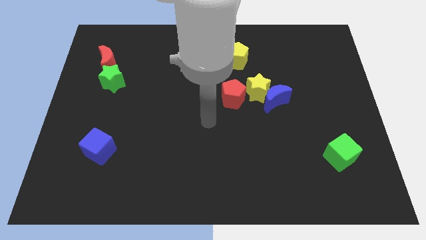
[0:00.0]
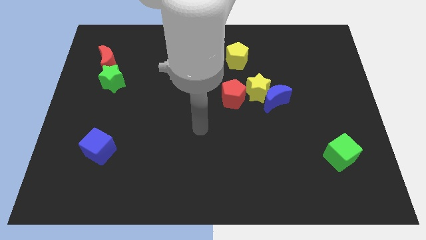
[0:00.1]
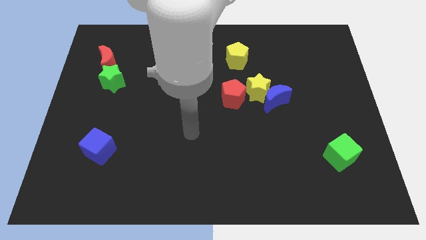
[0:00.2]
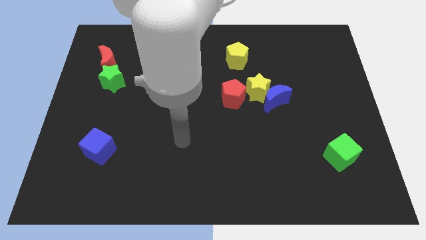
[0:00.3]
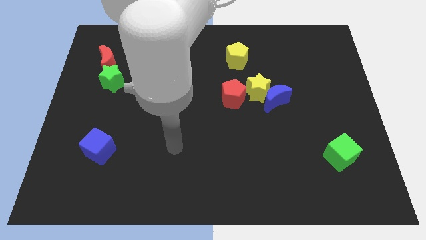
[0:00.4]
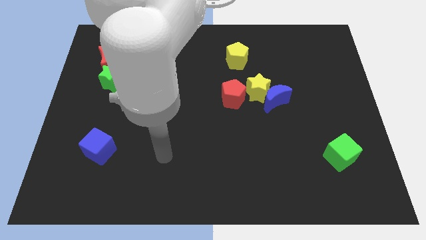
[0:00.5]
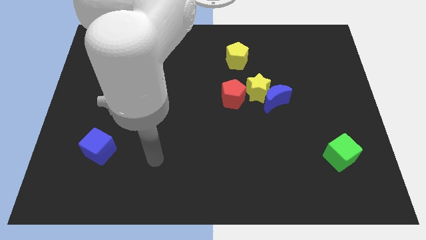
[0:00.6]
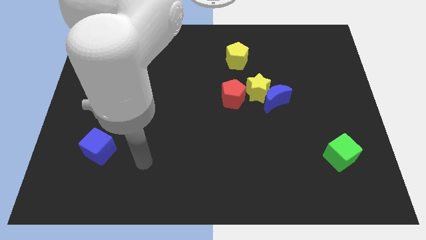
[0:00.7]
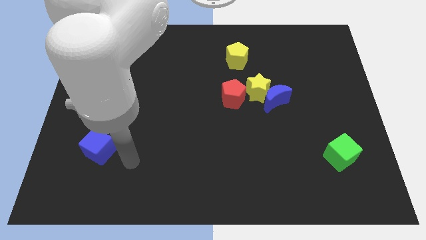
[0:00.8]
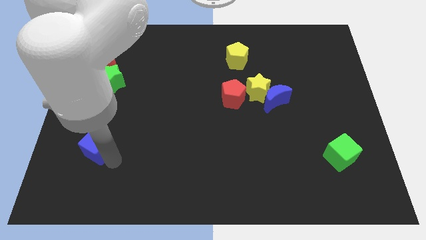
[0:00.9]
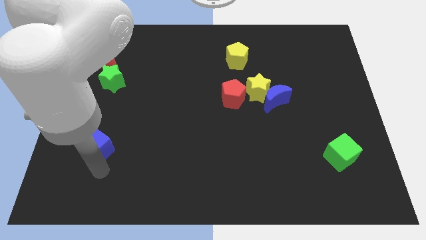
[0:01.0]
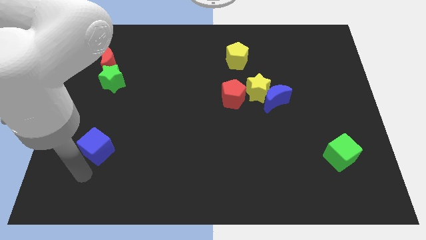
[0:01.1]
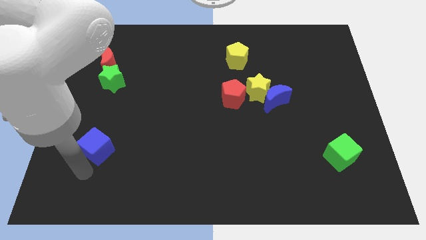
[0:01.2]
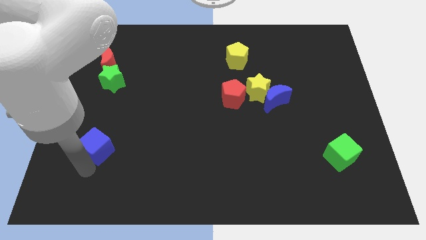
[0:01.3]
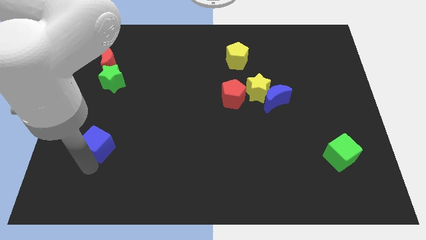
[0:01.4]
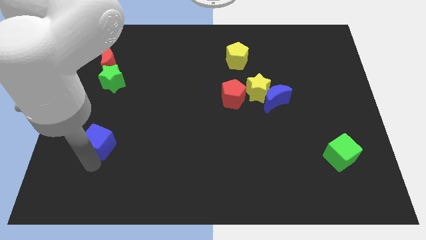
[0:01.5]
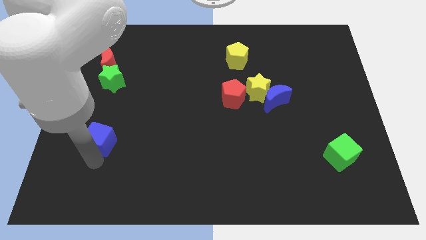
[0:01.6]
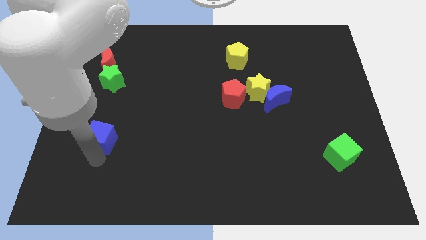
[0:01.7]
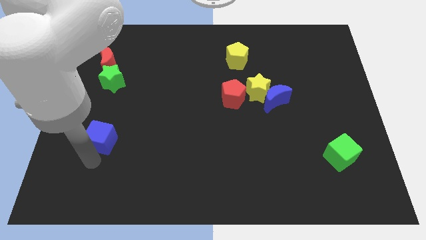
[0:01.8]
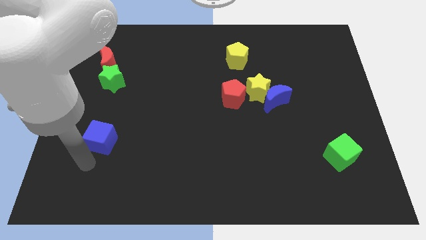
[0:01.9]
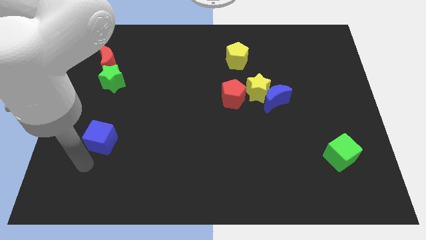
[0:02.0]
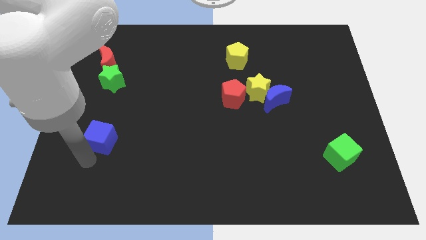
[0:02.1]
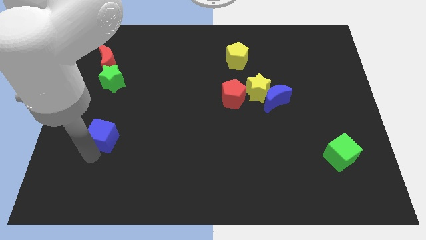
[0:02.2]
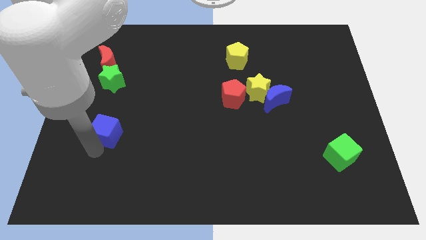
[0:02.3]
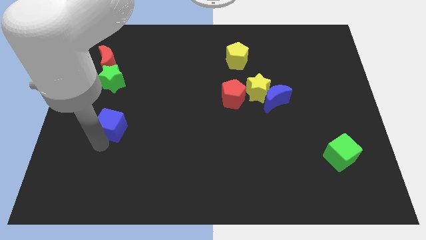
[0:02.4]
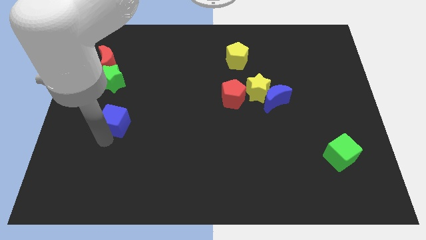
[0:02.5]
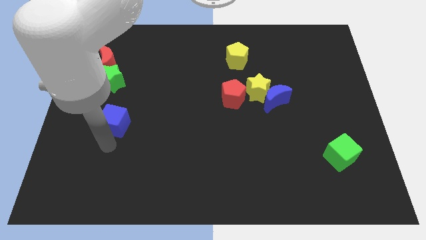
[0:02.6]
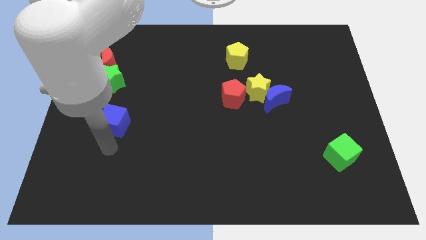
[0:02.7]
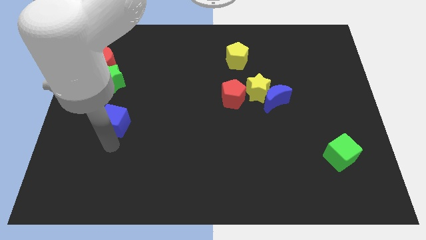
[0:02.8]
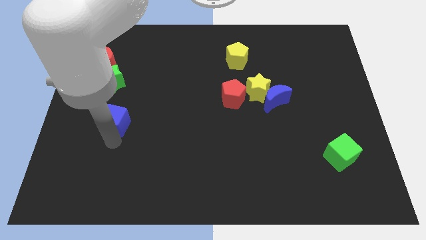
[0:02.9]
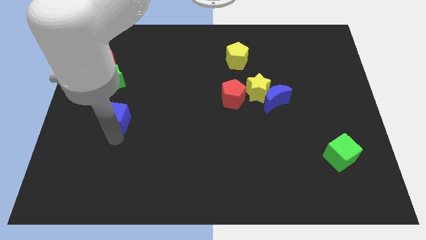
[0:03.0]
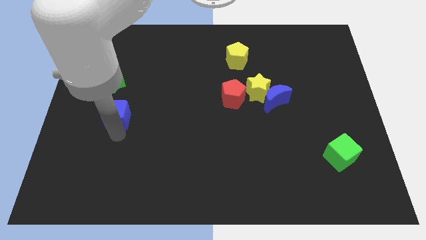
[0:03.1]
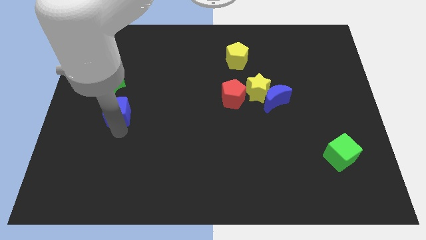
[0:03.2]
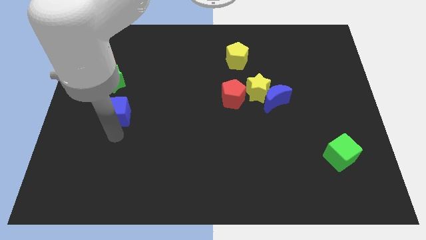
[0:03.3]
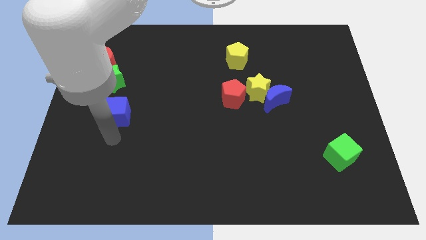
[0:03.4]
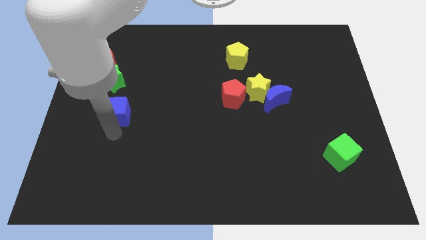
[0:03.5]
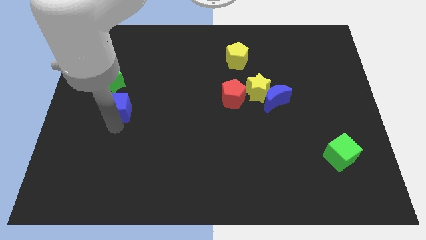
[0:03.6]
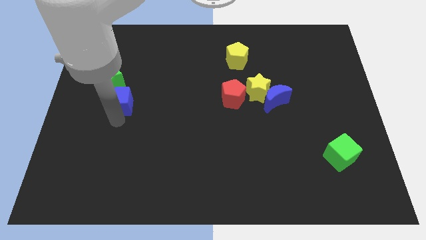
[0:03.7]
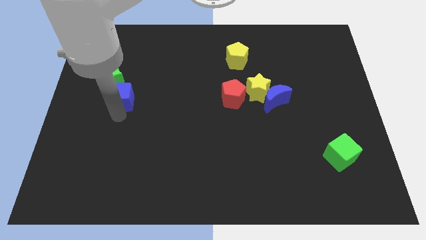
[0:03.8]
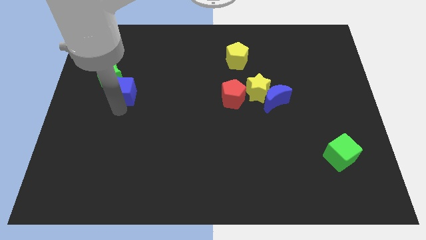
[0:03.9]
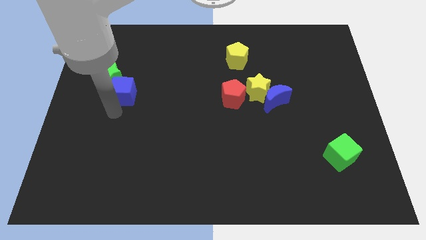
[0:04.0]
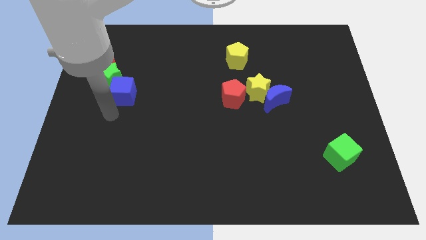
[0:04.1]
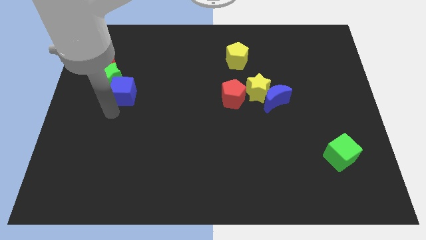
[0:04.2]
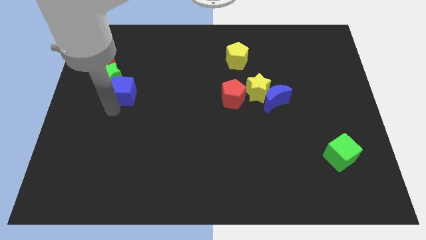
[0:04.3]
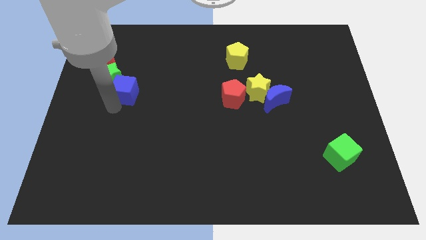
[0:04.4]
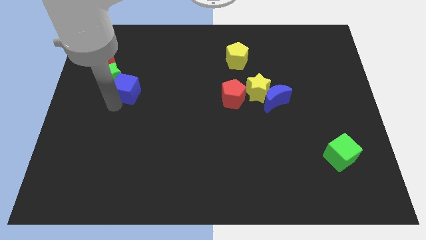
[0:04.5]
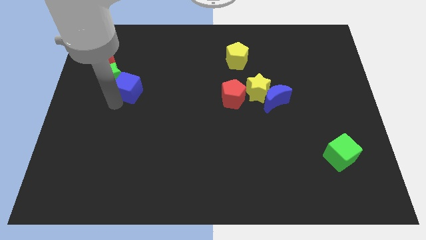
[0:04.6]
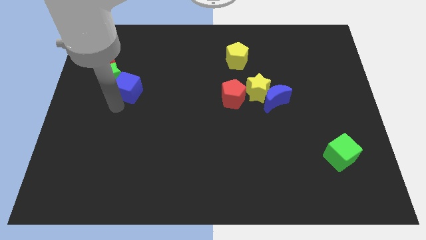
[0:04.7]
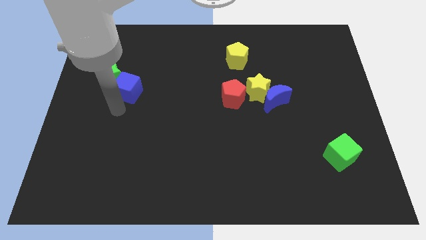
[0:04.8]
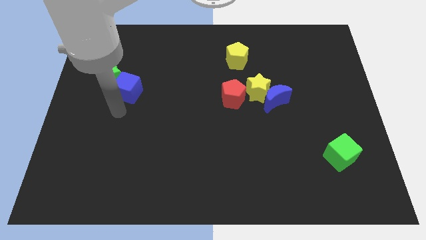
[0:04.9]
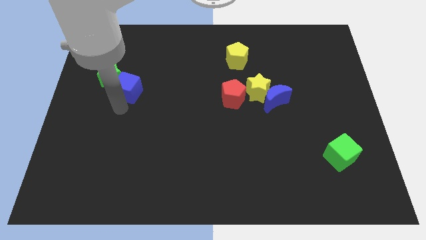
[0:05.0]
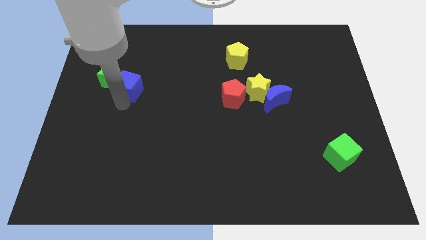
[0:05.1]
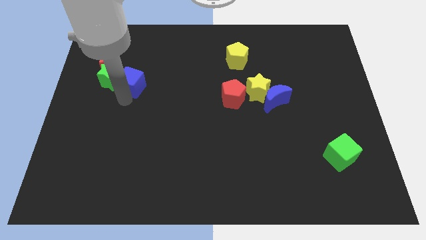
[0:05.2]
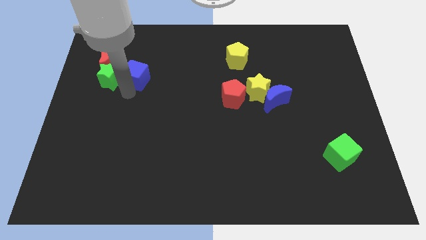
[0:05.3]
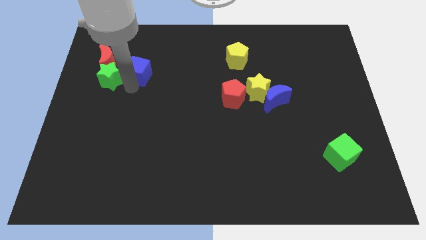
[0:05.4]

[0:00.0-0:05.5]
move the blue cube just right of the red moon

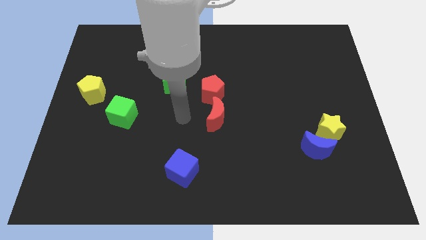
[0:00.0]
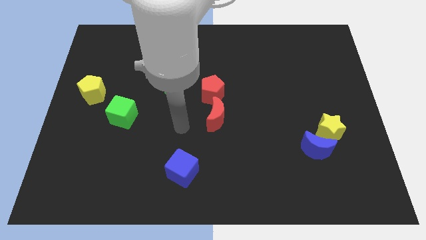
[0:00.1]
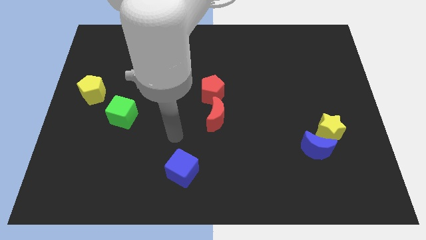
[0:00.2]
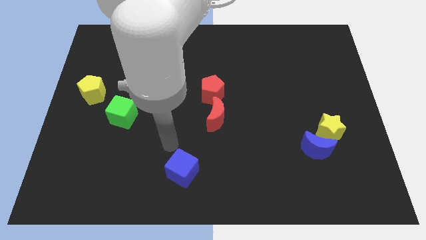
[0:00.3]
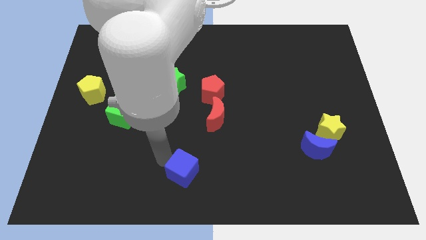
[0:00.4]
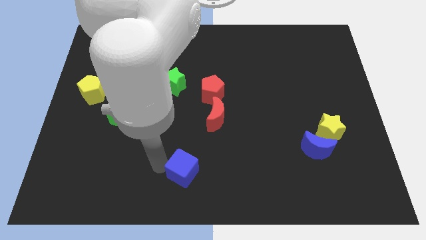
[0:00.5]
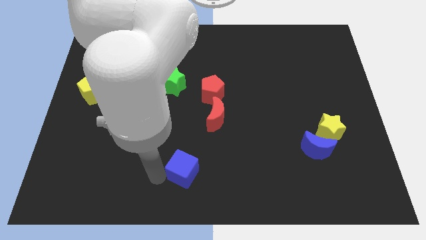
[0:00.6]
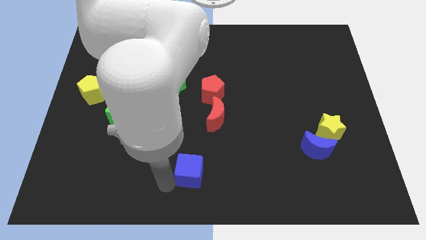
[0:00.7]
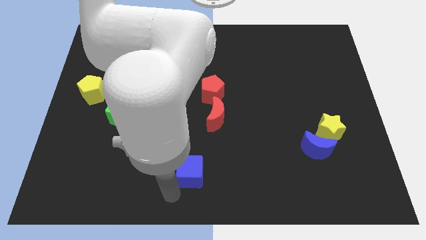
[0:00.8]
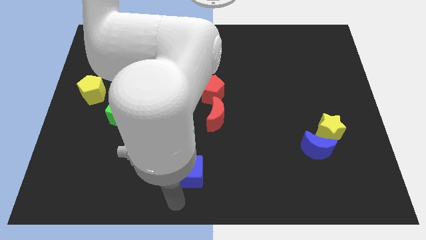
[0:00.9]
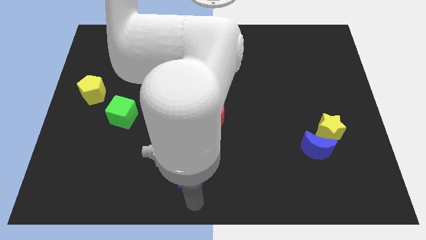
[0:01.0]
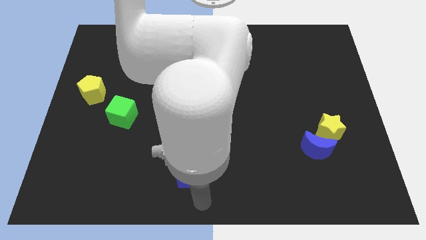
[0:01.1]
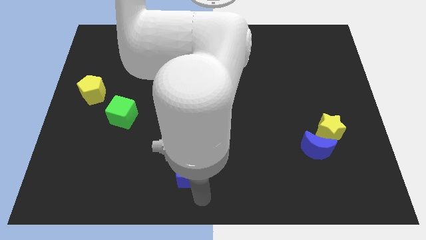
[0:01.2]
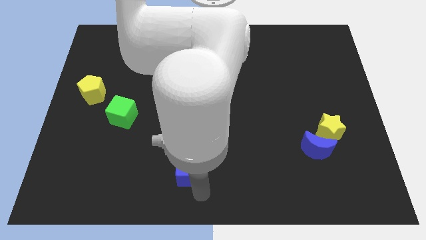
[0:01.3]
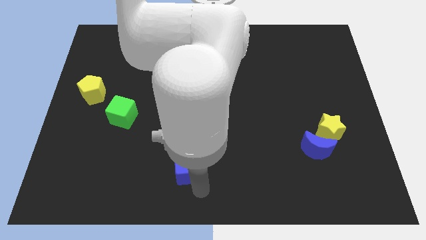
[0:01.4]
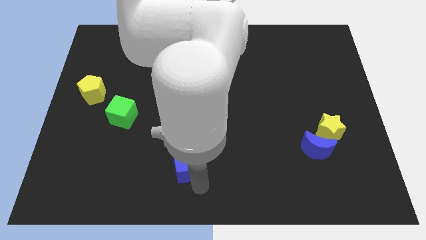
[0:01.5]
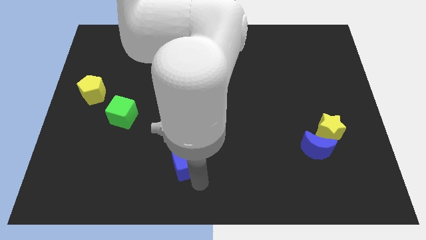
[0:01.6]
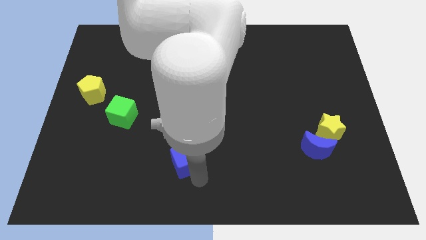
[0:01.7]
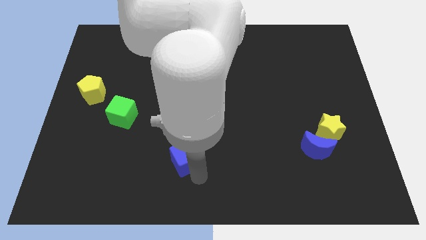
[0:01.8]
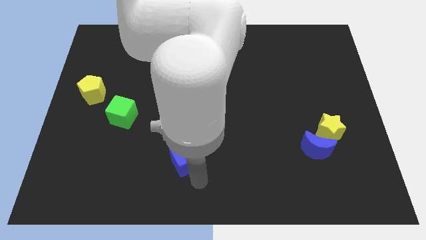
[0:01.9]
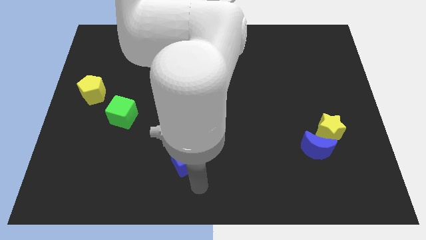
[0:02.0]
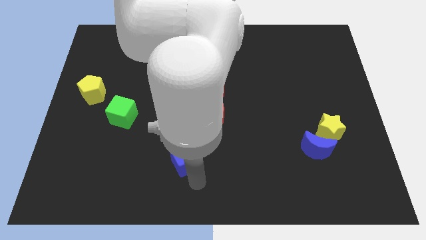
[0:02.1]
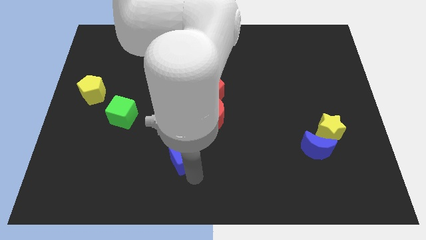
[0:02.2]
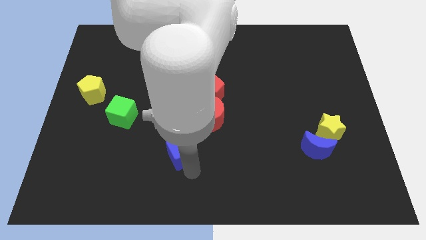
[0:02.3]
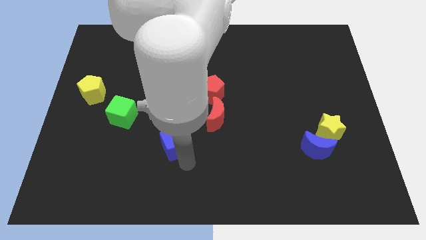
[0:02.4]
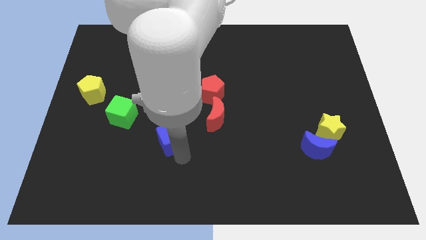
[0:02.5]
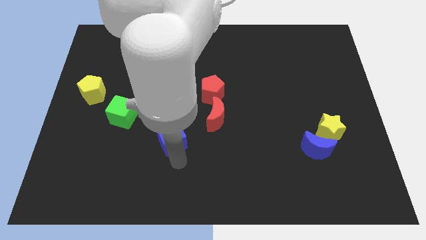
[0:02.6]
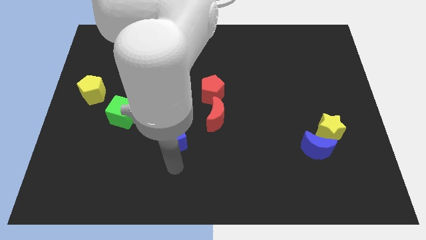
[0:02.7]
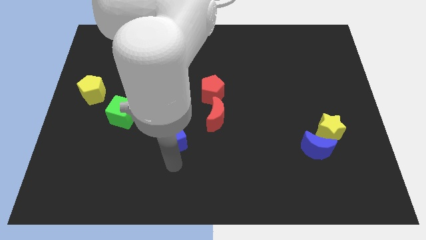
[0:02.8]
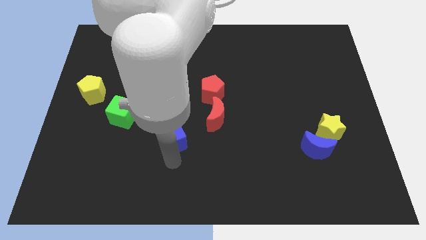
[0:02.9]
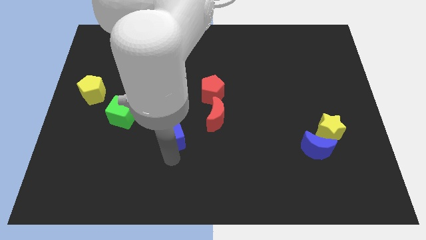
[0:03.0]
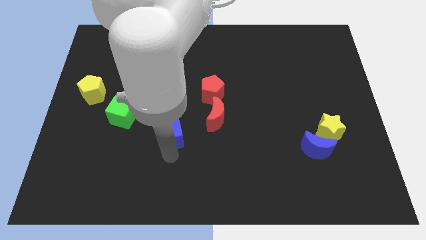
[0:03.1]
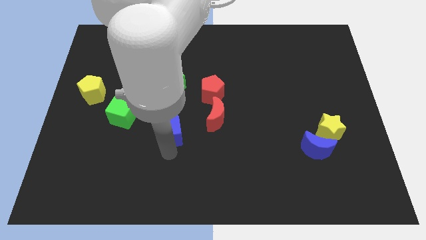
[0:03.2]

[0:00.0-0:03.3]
slide the blue cube just left of the red moon
